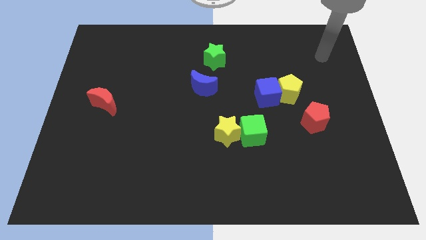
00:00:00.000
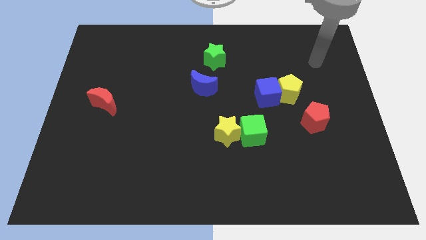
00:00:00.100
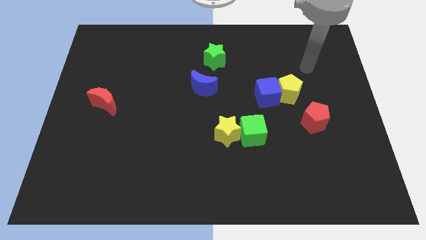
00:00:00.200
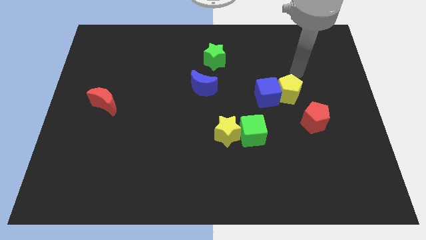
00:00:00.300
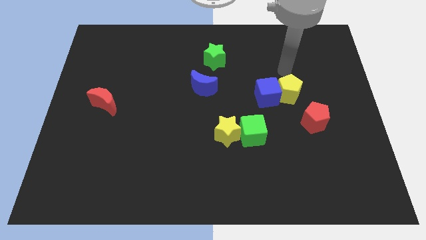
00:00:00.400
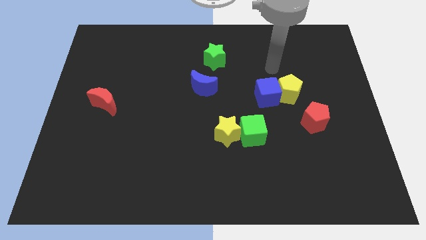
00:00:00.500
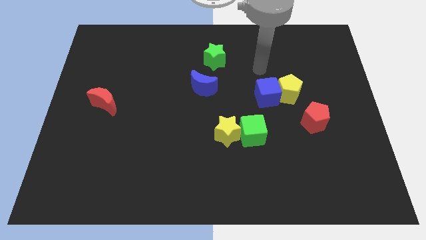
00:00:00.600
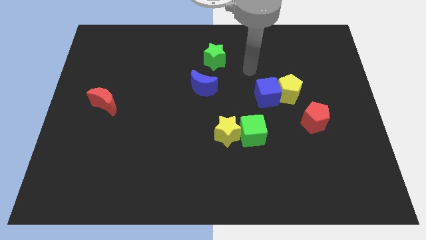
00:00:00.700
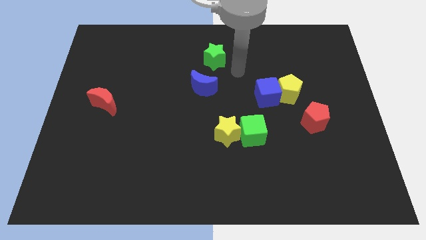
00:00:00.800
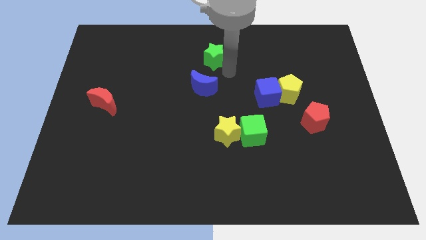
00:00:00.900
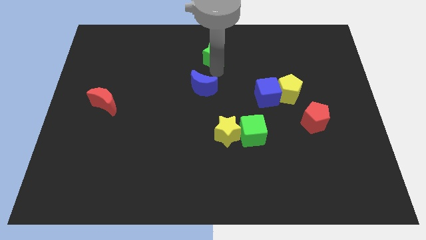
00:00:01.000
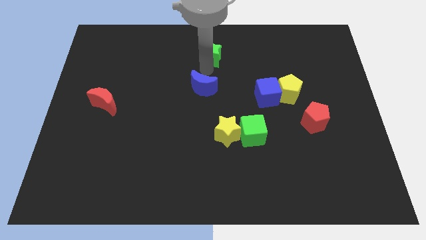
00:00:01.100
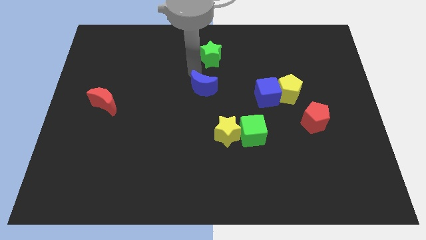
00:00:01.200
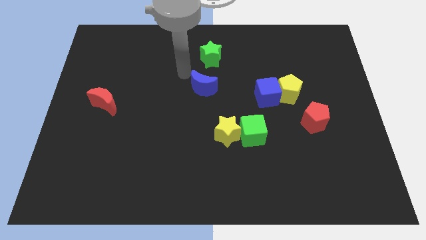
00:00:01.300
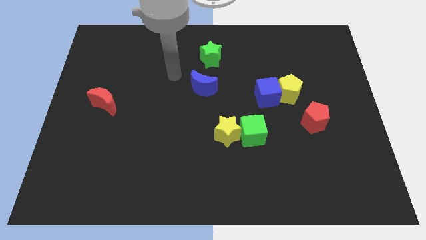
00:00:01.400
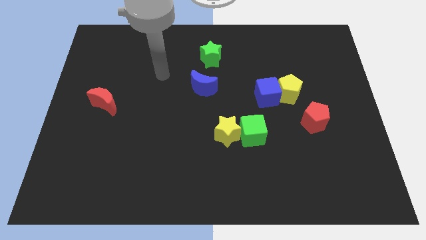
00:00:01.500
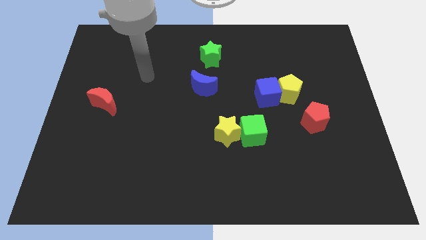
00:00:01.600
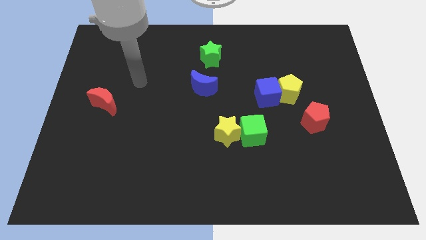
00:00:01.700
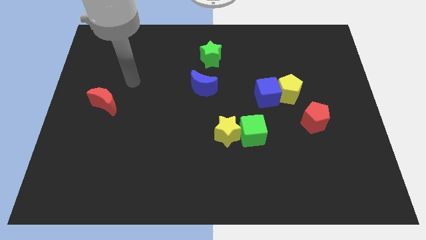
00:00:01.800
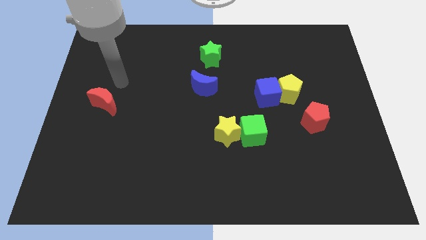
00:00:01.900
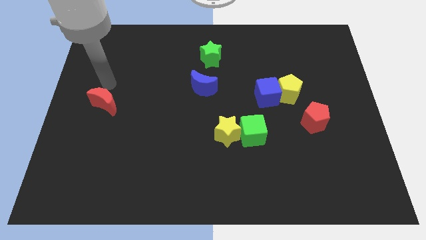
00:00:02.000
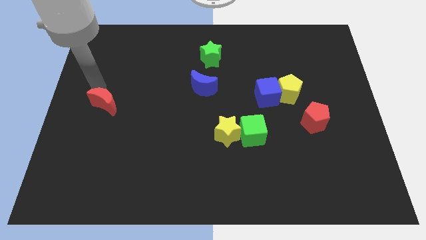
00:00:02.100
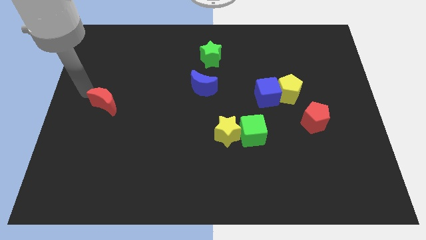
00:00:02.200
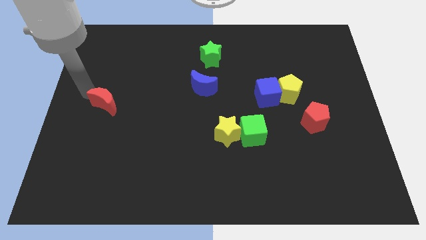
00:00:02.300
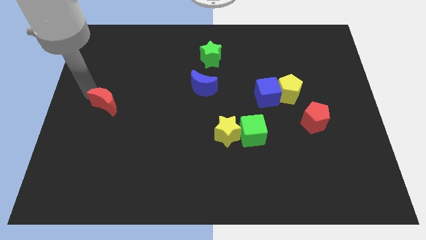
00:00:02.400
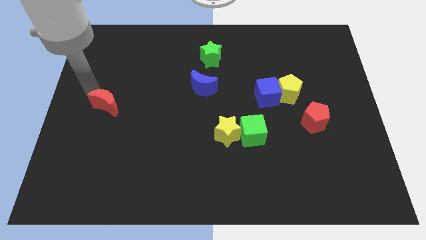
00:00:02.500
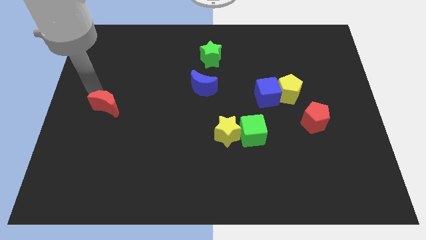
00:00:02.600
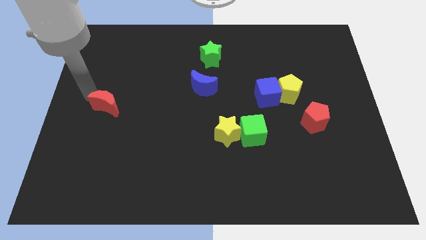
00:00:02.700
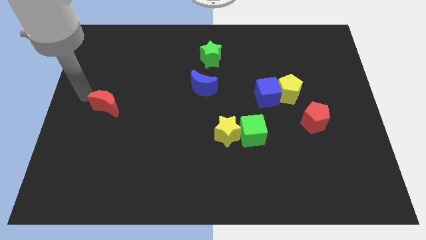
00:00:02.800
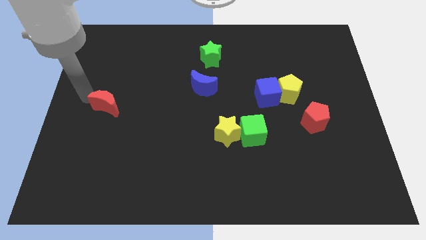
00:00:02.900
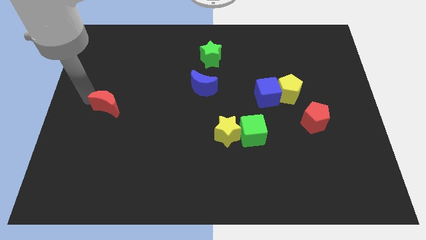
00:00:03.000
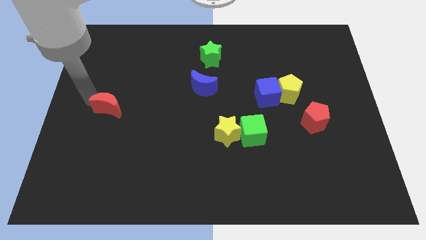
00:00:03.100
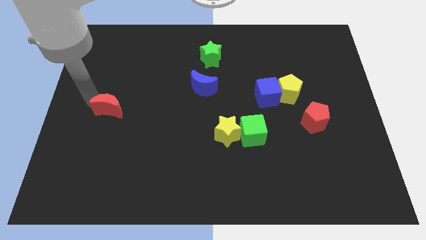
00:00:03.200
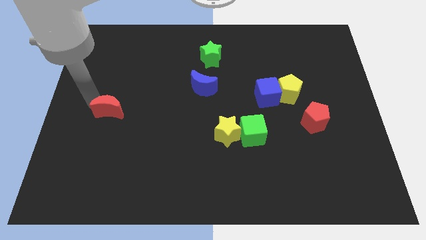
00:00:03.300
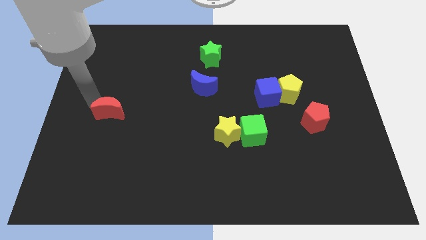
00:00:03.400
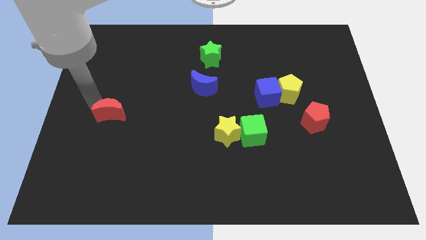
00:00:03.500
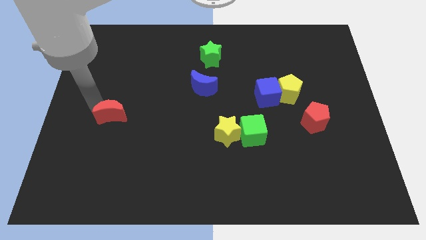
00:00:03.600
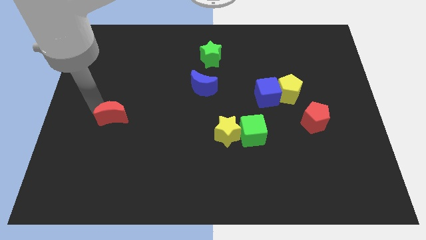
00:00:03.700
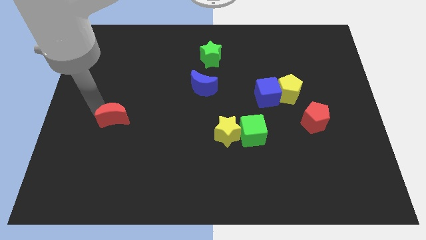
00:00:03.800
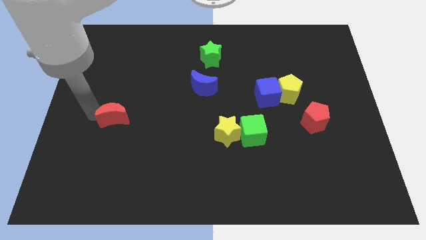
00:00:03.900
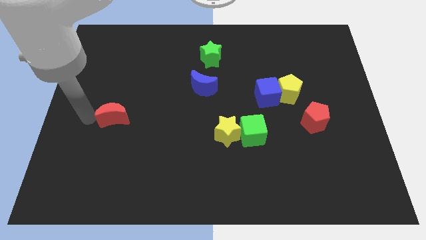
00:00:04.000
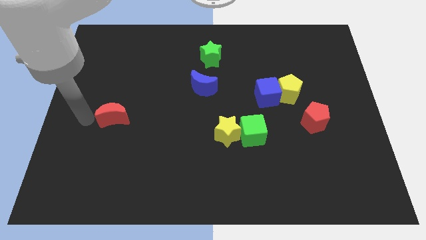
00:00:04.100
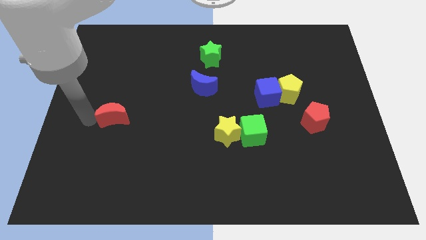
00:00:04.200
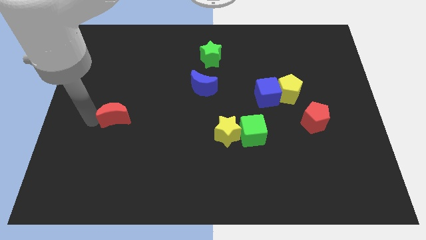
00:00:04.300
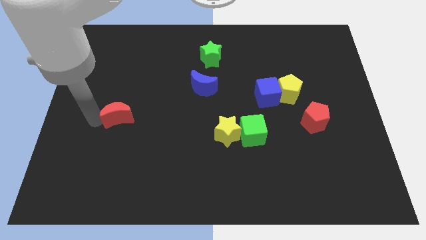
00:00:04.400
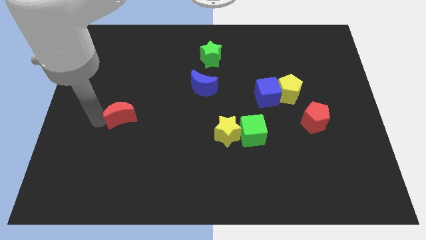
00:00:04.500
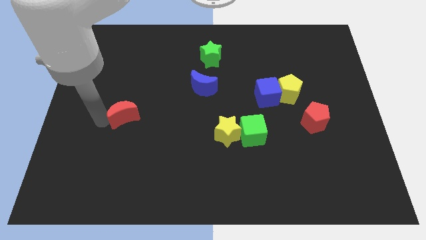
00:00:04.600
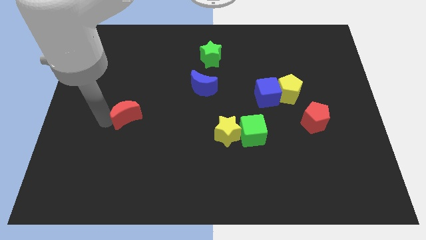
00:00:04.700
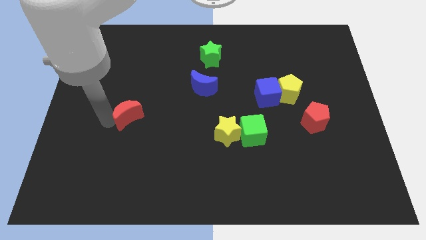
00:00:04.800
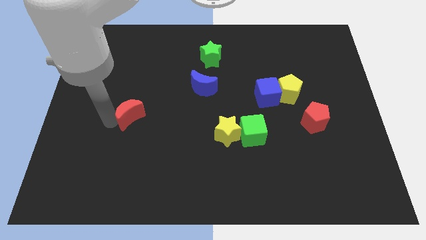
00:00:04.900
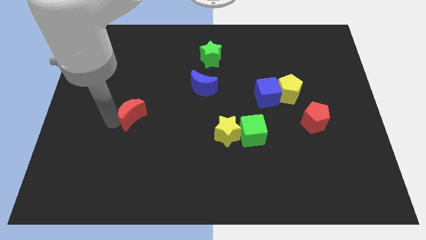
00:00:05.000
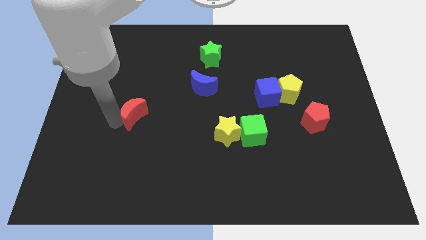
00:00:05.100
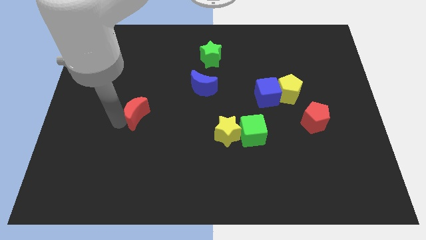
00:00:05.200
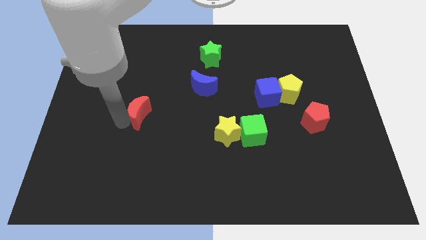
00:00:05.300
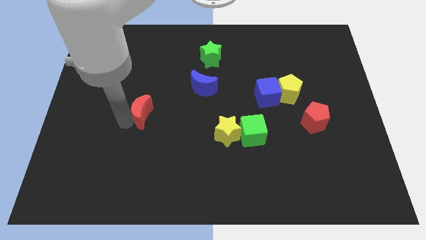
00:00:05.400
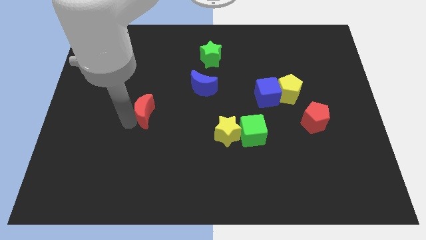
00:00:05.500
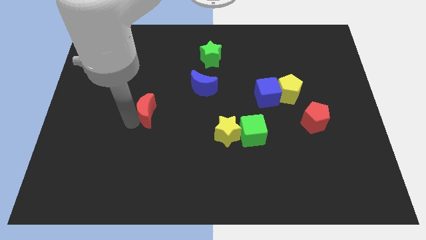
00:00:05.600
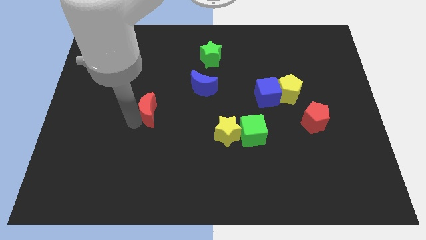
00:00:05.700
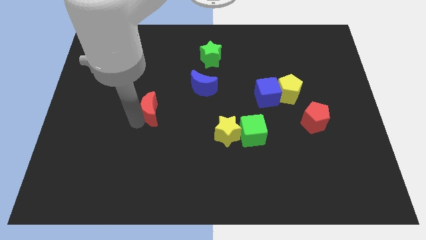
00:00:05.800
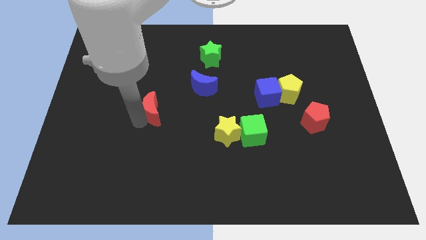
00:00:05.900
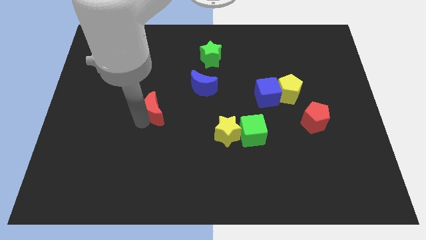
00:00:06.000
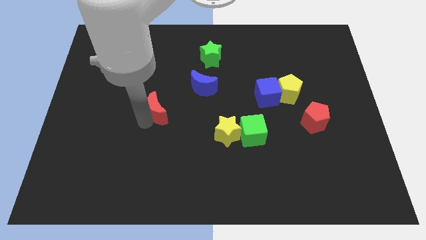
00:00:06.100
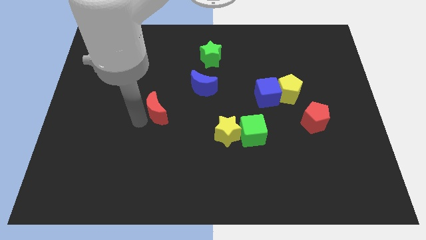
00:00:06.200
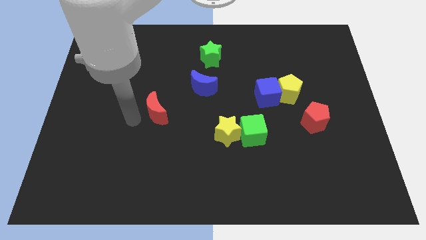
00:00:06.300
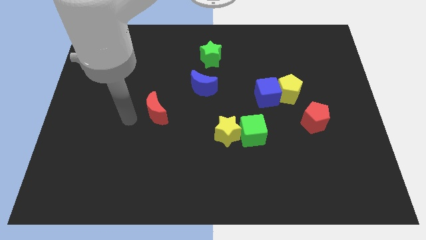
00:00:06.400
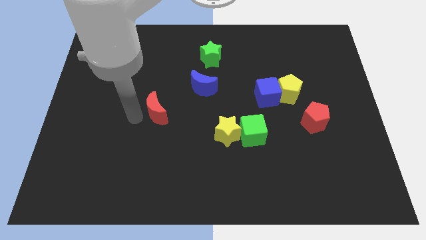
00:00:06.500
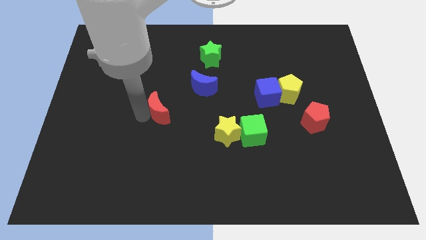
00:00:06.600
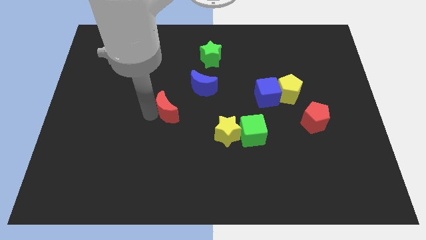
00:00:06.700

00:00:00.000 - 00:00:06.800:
move the red moon to the middle

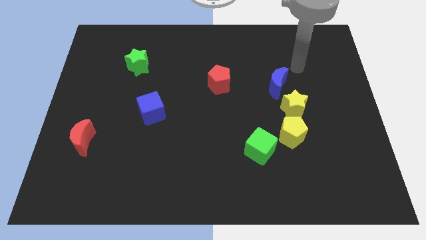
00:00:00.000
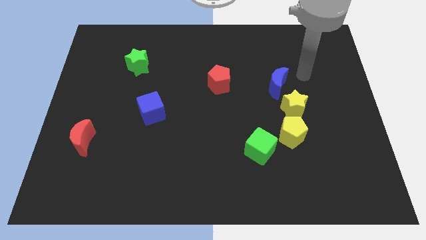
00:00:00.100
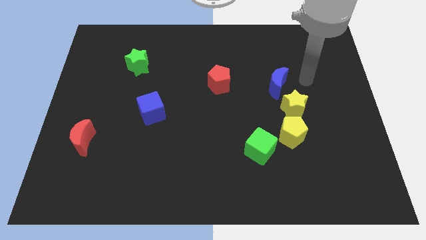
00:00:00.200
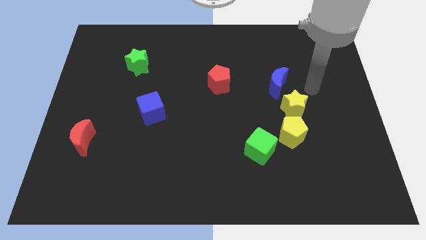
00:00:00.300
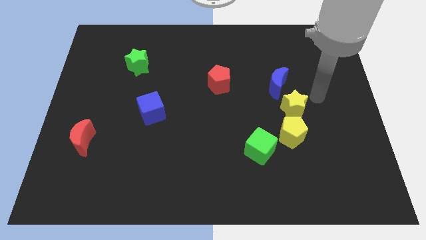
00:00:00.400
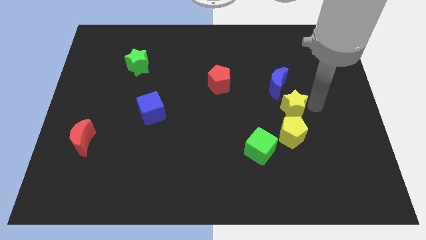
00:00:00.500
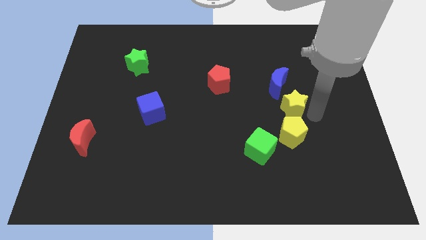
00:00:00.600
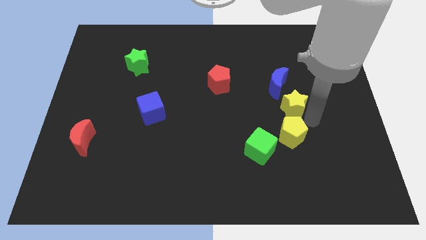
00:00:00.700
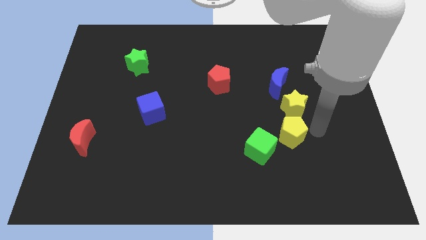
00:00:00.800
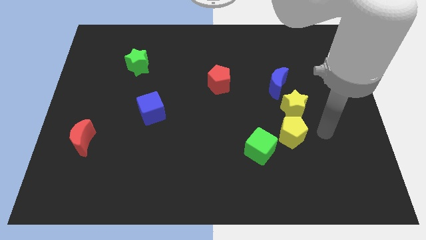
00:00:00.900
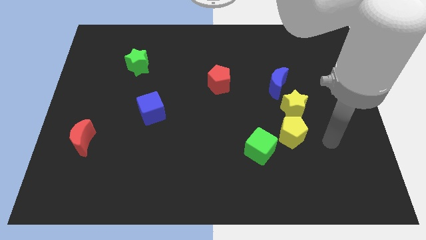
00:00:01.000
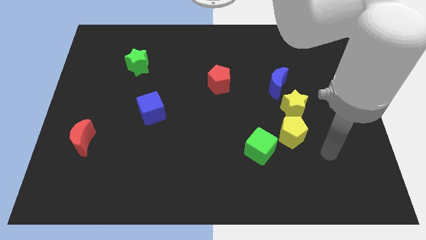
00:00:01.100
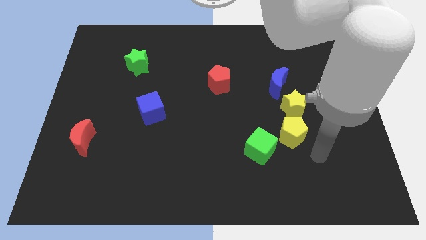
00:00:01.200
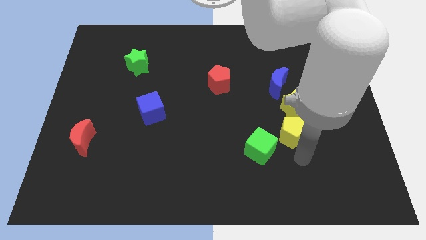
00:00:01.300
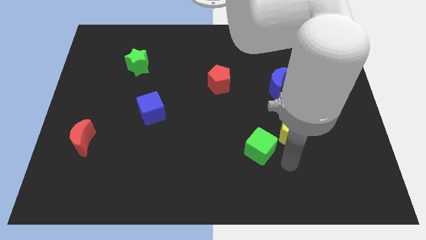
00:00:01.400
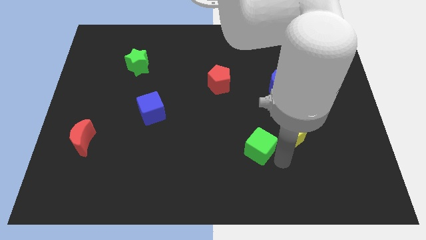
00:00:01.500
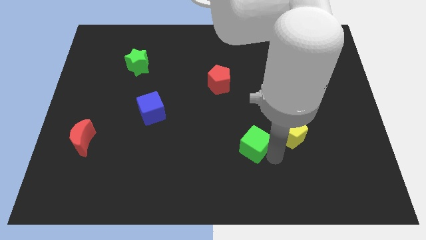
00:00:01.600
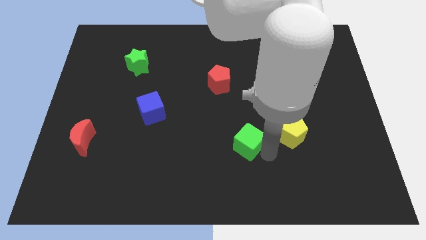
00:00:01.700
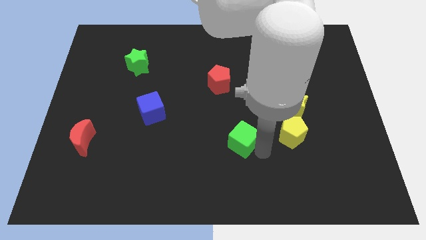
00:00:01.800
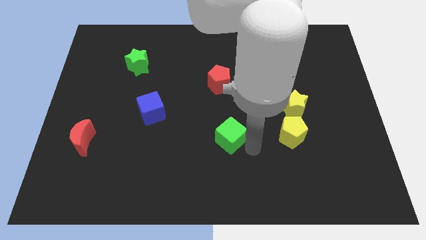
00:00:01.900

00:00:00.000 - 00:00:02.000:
slide the green cube to the center
